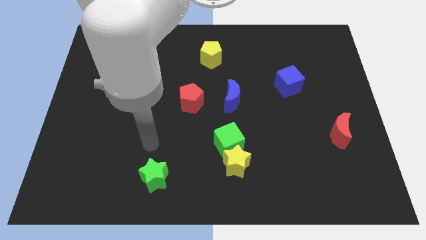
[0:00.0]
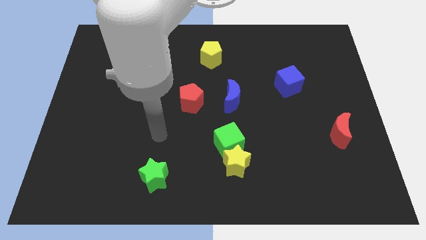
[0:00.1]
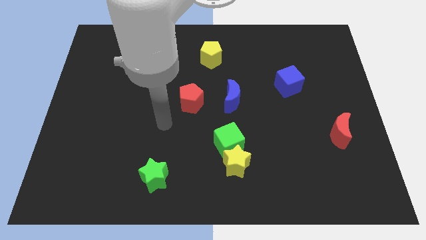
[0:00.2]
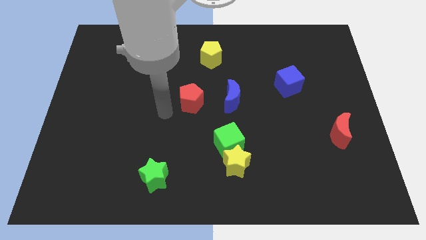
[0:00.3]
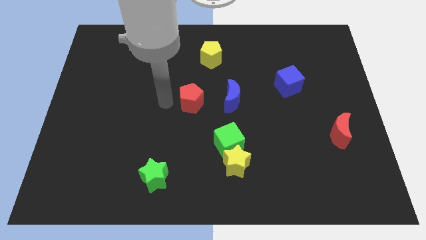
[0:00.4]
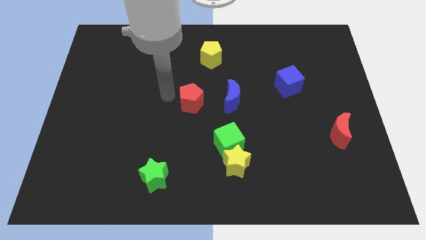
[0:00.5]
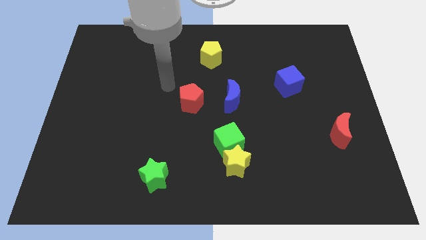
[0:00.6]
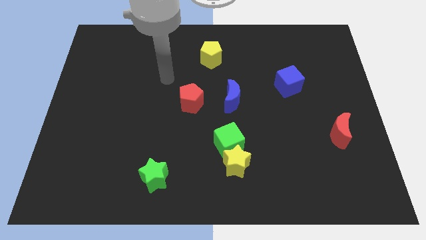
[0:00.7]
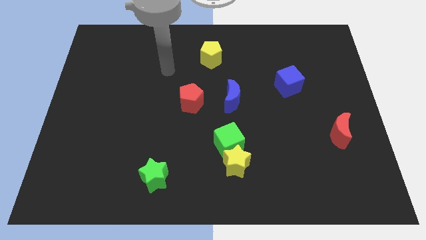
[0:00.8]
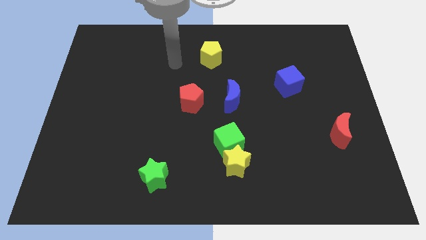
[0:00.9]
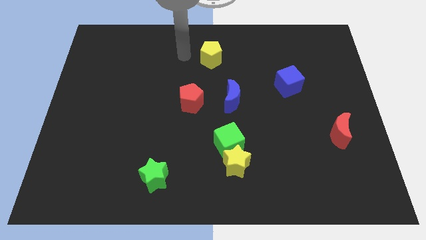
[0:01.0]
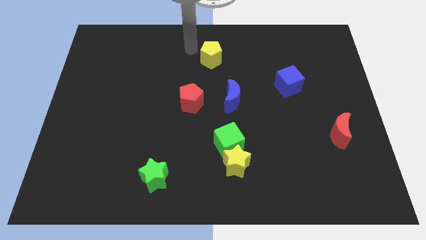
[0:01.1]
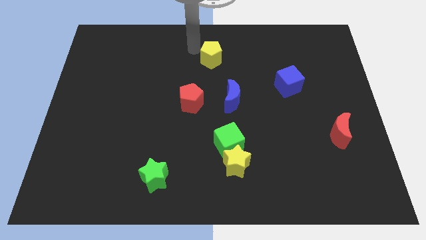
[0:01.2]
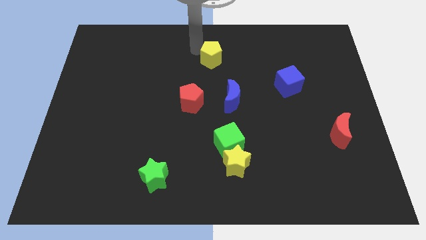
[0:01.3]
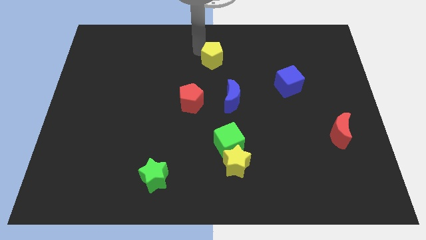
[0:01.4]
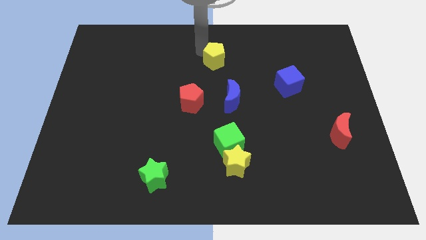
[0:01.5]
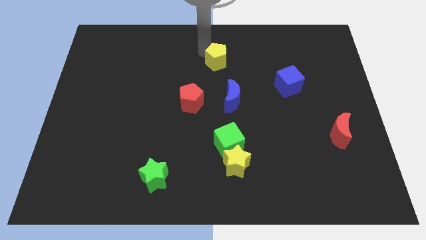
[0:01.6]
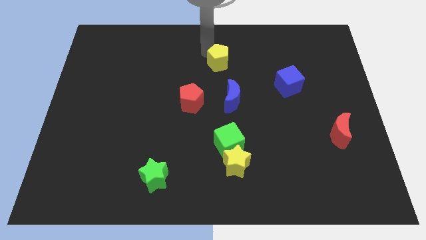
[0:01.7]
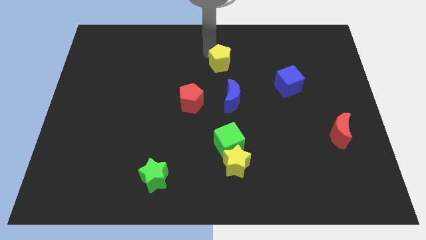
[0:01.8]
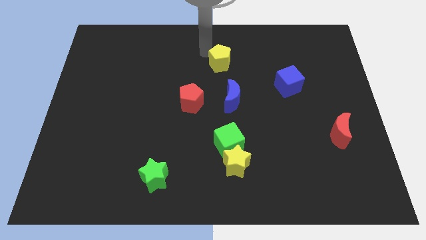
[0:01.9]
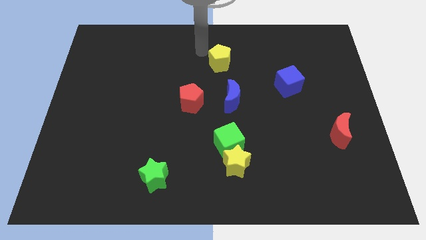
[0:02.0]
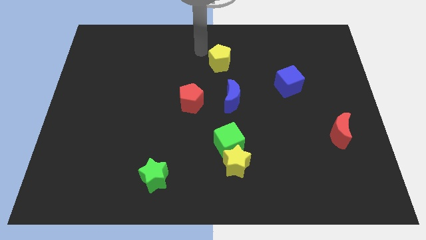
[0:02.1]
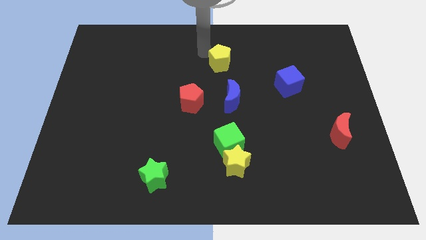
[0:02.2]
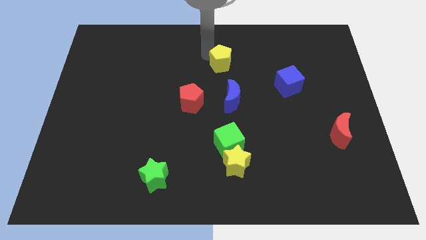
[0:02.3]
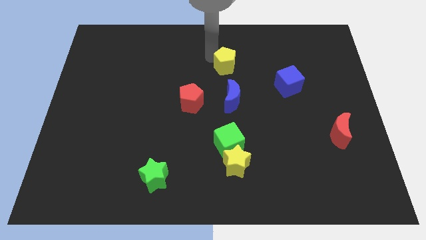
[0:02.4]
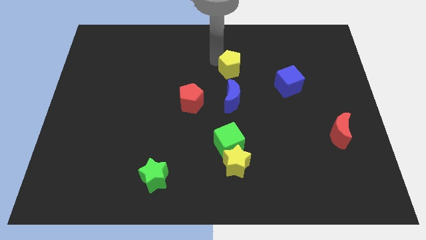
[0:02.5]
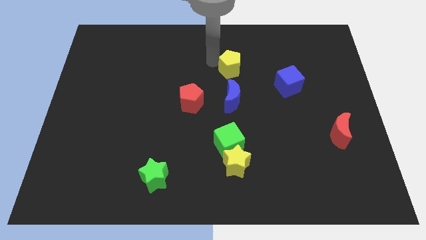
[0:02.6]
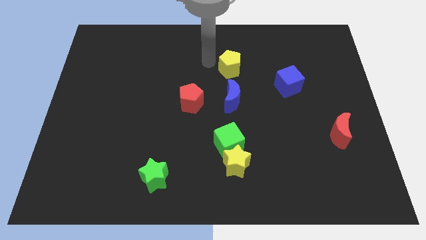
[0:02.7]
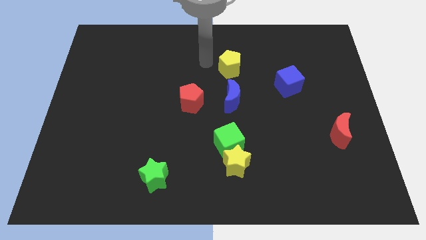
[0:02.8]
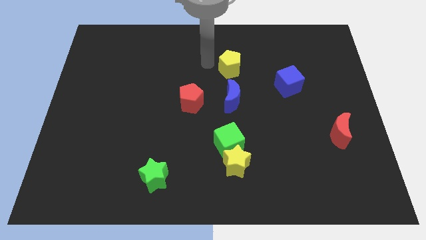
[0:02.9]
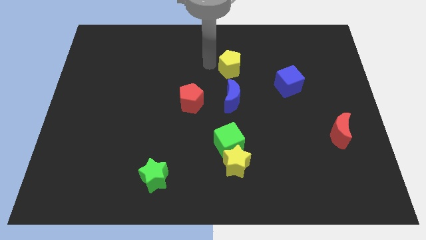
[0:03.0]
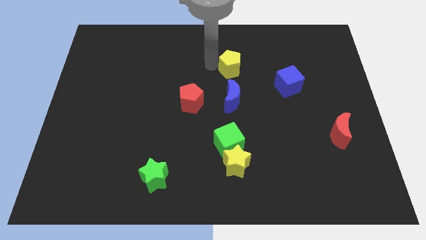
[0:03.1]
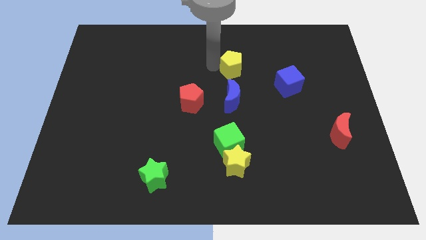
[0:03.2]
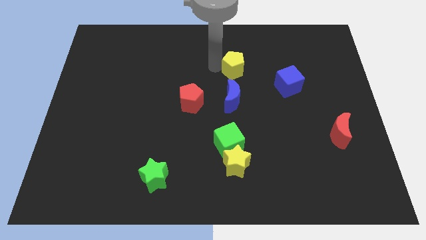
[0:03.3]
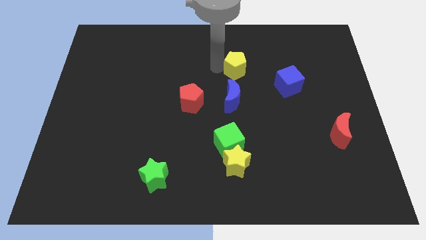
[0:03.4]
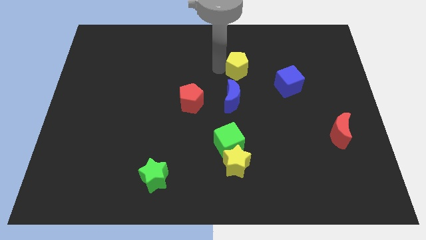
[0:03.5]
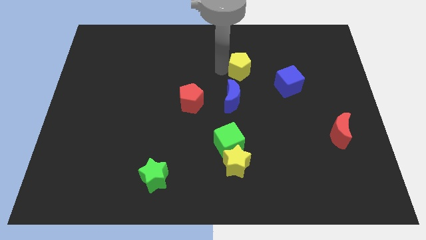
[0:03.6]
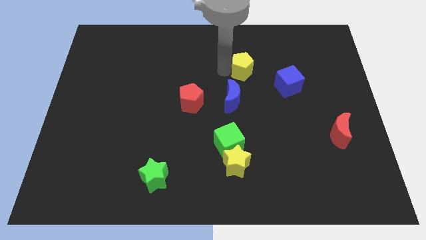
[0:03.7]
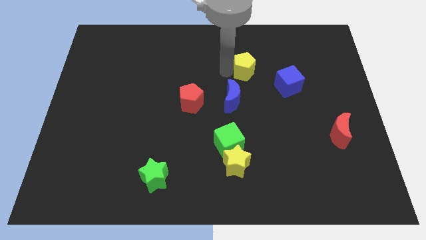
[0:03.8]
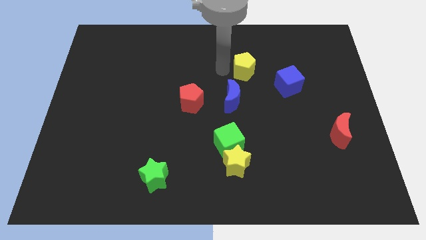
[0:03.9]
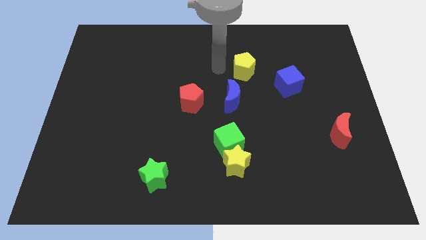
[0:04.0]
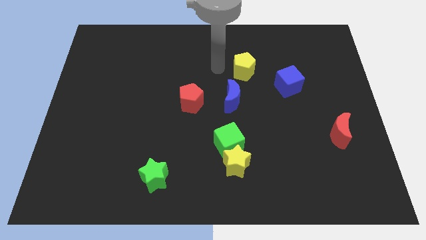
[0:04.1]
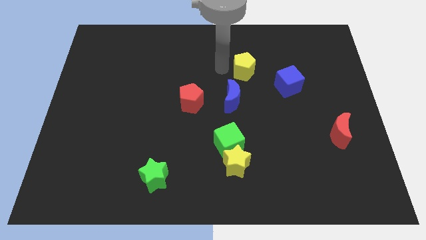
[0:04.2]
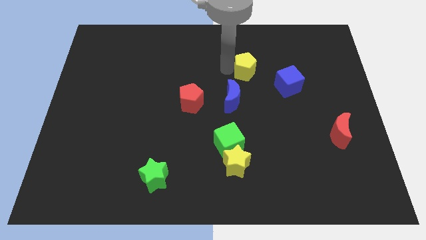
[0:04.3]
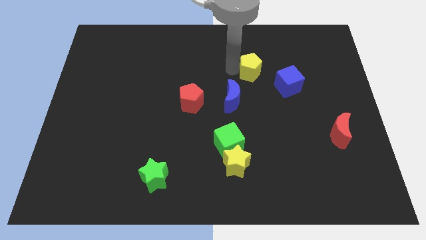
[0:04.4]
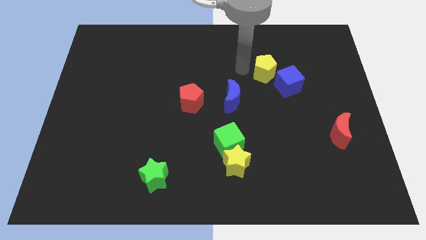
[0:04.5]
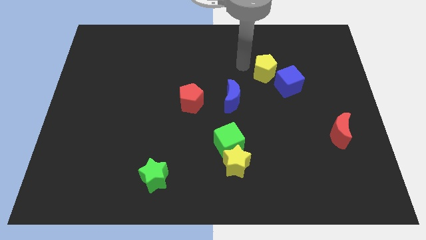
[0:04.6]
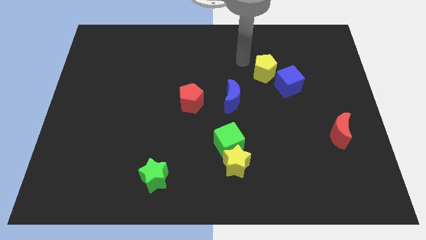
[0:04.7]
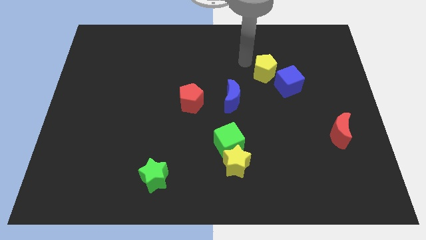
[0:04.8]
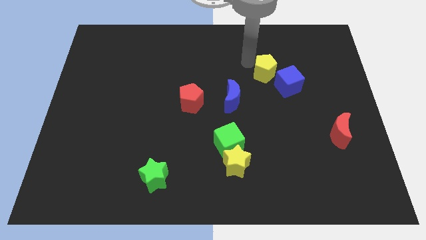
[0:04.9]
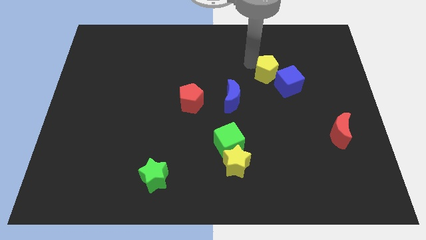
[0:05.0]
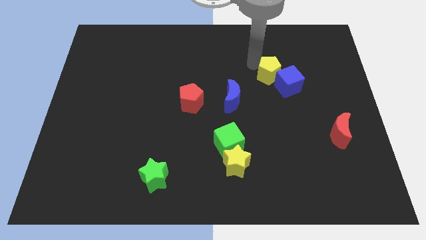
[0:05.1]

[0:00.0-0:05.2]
push the yellow pentagon next to the blue cube

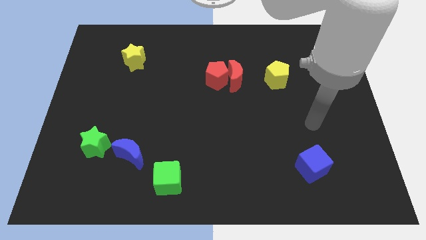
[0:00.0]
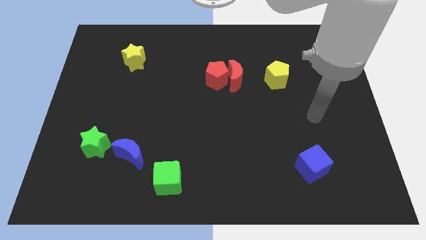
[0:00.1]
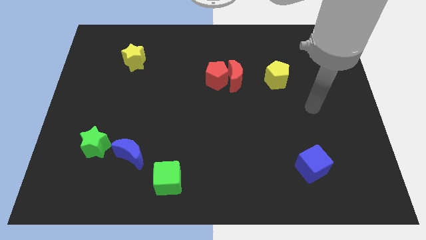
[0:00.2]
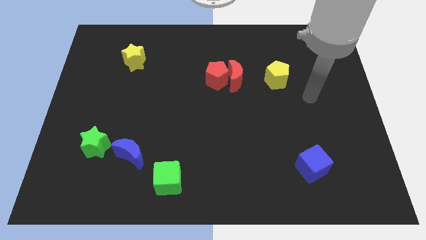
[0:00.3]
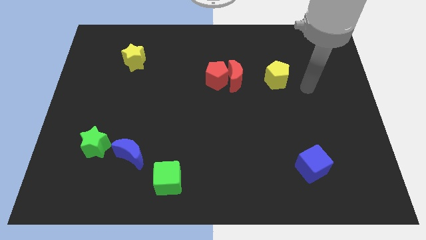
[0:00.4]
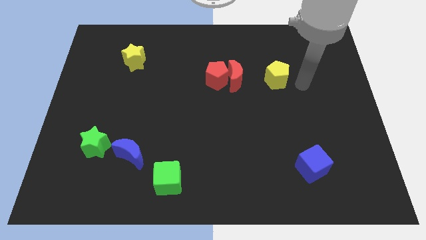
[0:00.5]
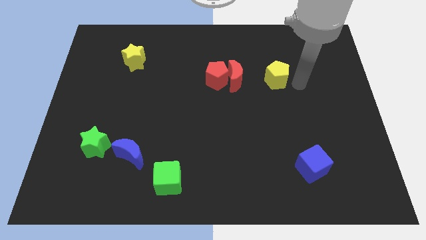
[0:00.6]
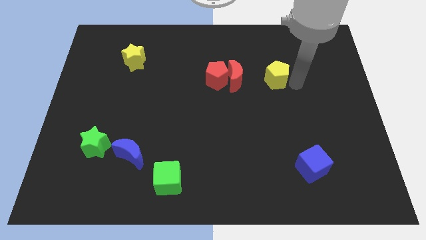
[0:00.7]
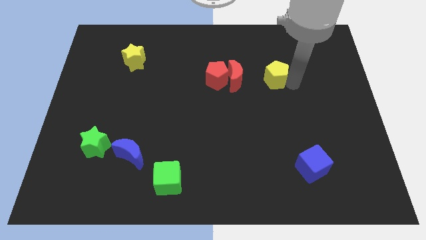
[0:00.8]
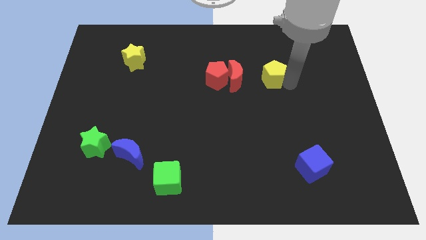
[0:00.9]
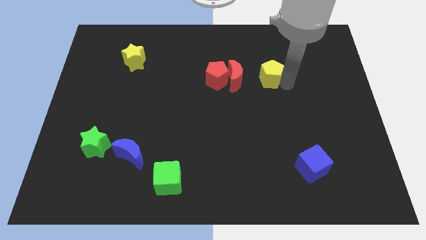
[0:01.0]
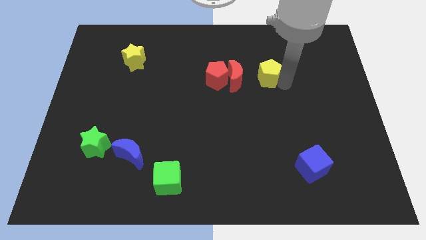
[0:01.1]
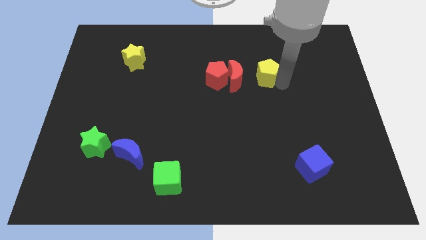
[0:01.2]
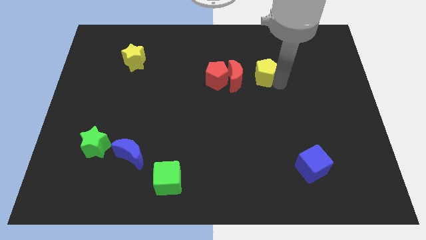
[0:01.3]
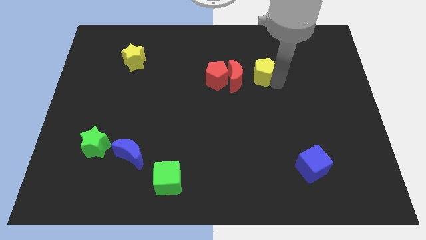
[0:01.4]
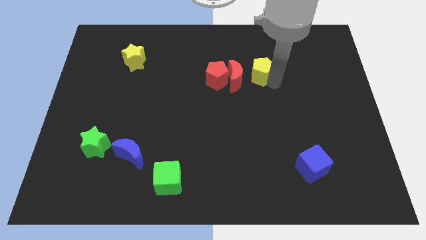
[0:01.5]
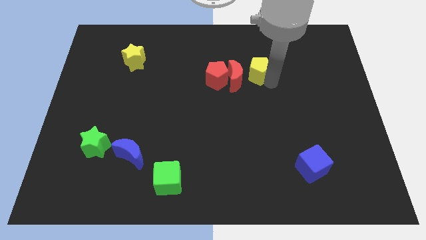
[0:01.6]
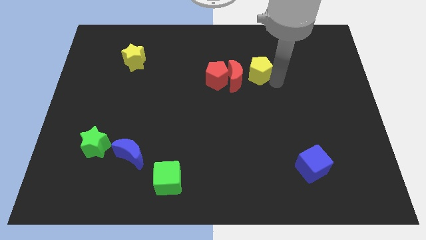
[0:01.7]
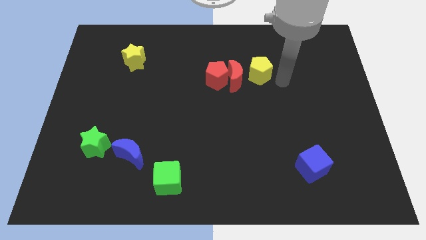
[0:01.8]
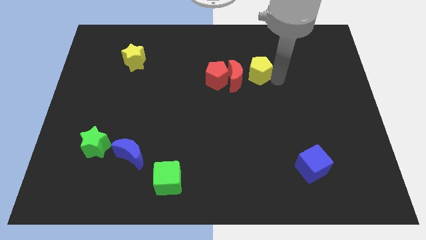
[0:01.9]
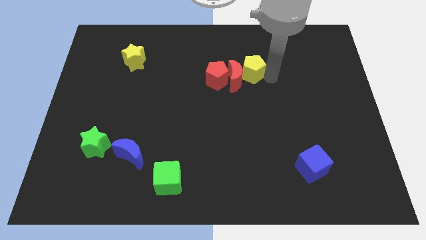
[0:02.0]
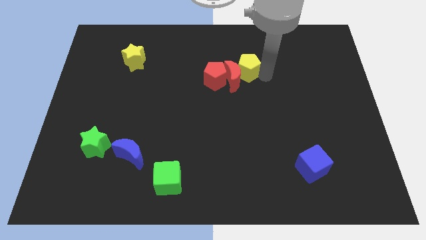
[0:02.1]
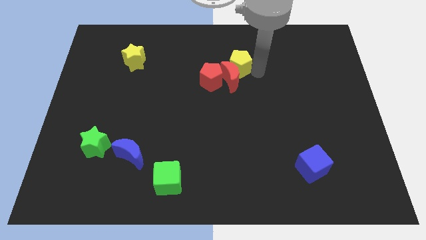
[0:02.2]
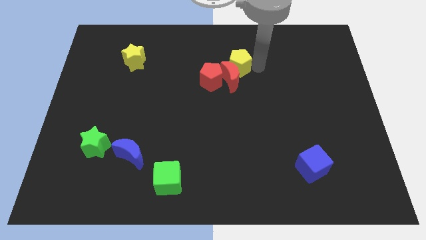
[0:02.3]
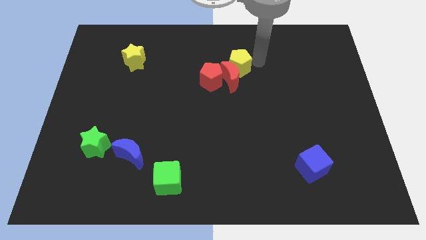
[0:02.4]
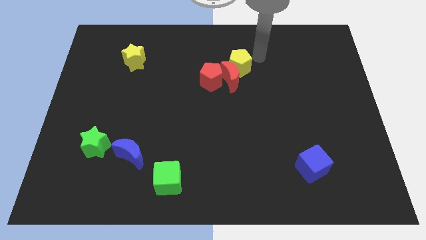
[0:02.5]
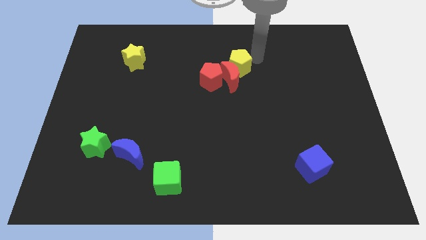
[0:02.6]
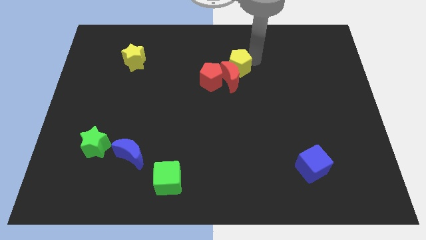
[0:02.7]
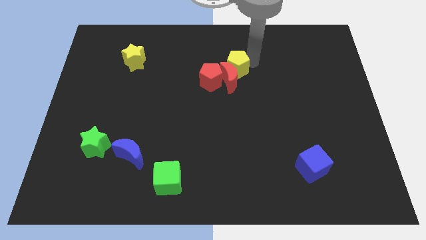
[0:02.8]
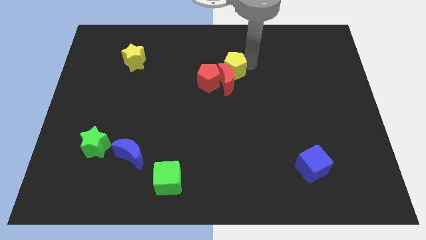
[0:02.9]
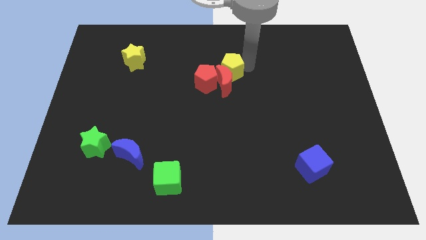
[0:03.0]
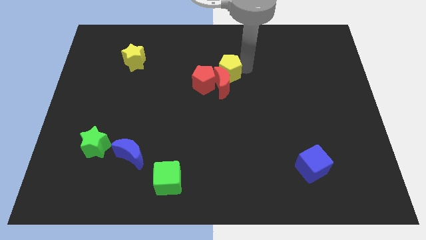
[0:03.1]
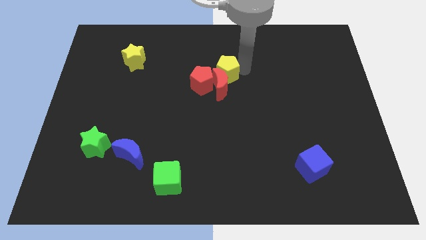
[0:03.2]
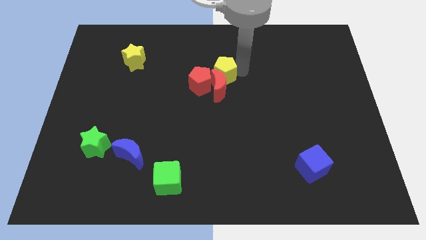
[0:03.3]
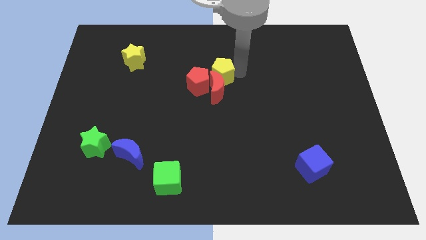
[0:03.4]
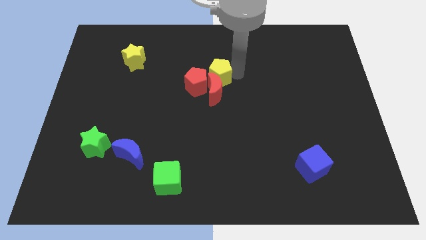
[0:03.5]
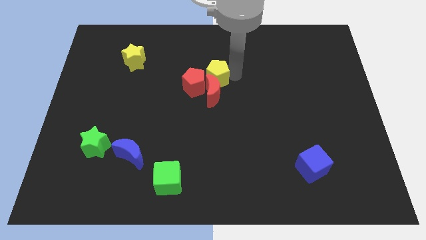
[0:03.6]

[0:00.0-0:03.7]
slide the yellow pentagon close to the red pentagon
